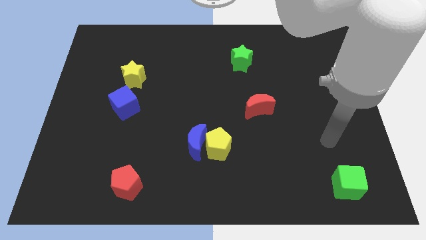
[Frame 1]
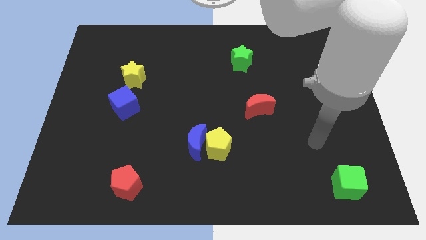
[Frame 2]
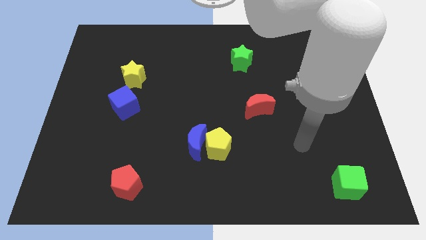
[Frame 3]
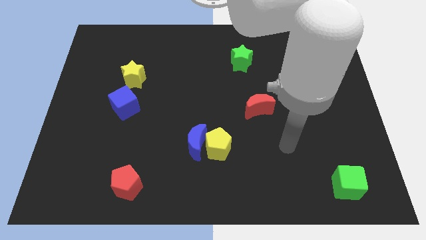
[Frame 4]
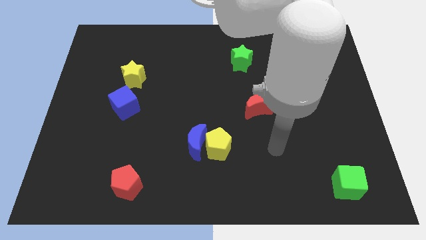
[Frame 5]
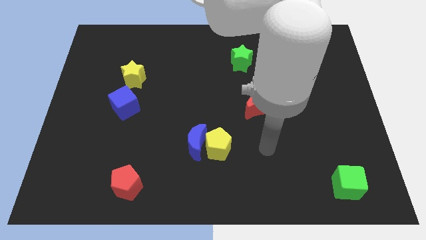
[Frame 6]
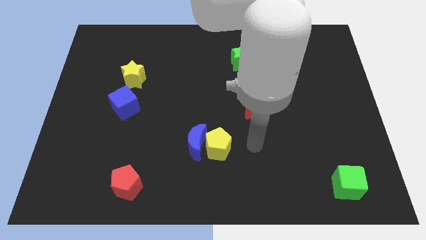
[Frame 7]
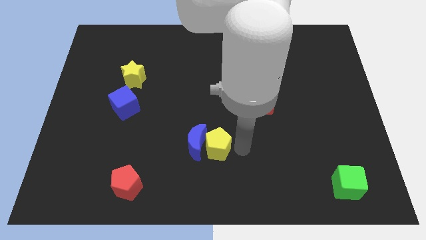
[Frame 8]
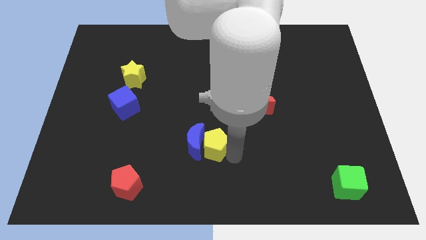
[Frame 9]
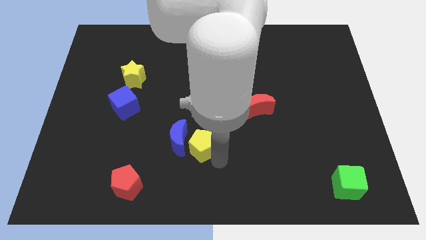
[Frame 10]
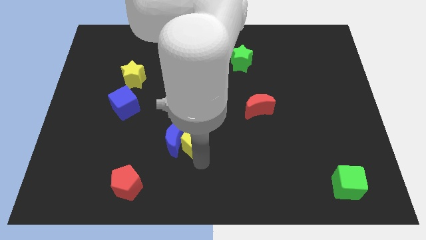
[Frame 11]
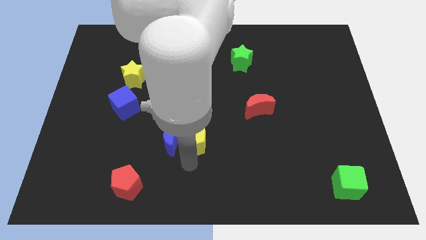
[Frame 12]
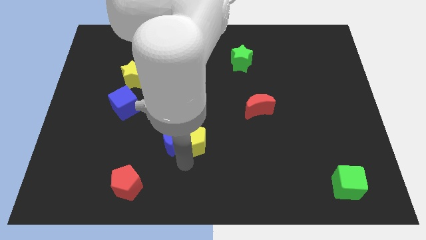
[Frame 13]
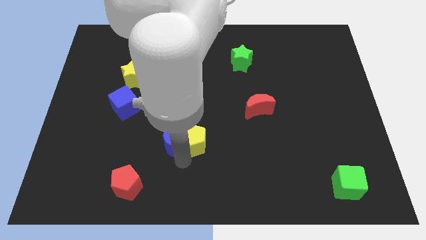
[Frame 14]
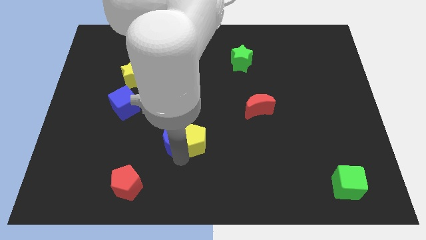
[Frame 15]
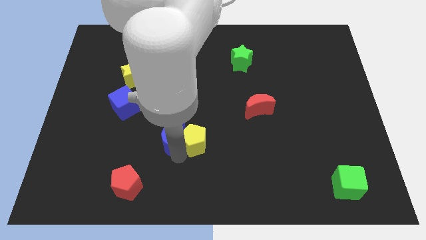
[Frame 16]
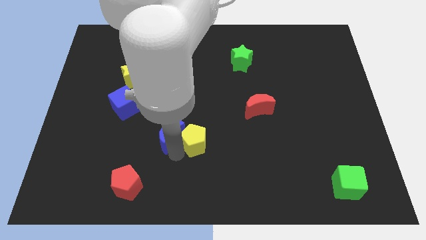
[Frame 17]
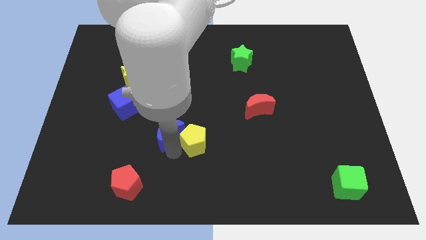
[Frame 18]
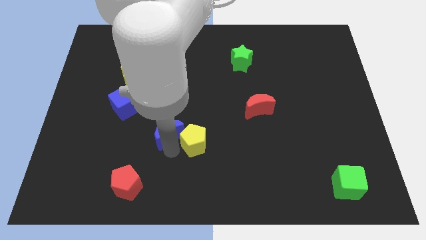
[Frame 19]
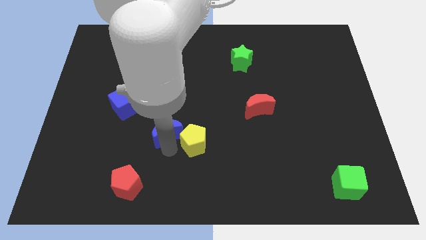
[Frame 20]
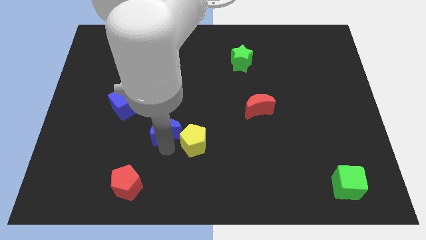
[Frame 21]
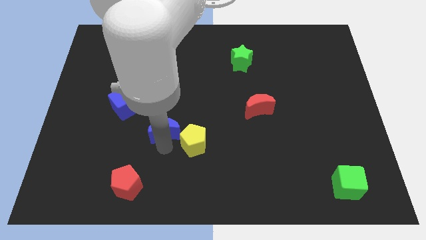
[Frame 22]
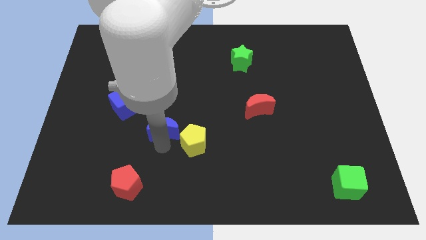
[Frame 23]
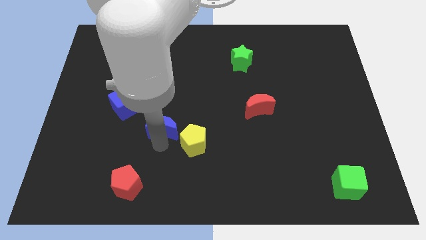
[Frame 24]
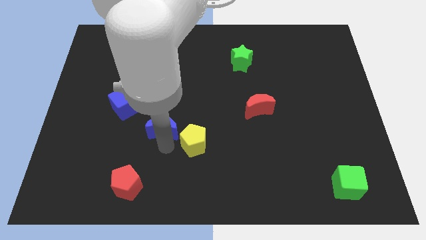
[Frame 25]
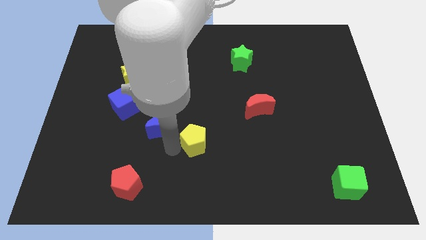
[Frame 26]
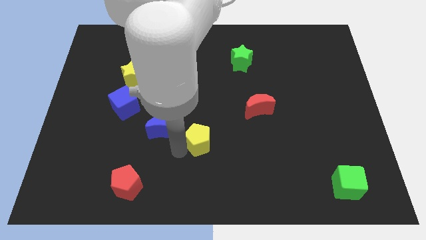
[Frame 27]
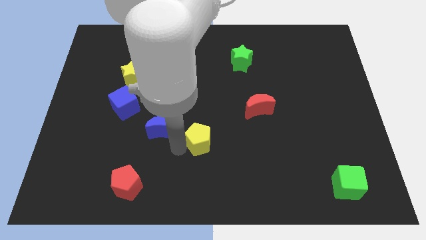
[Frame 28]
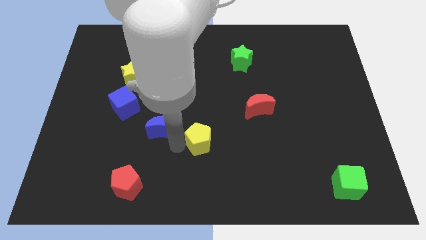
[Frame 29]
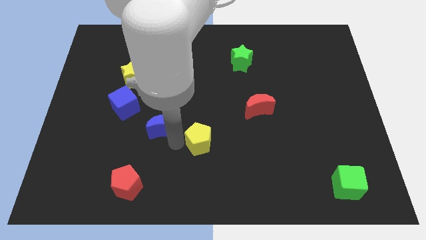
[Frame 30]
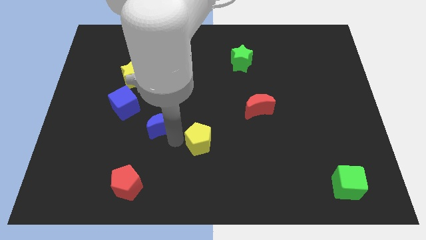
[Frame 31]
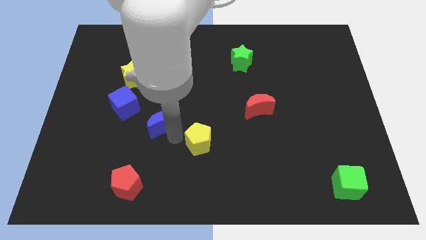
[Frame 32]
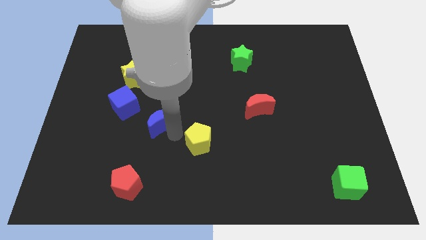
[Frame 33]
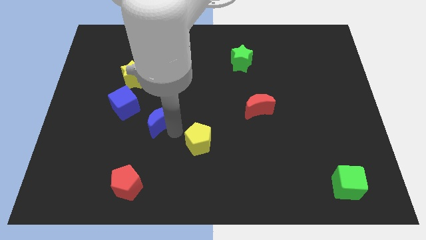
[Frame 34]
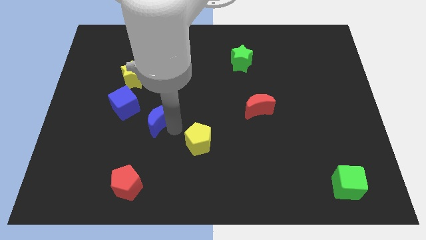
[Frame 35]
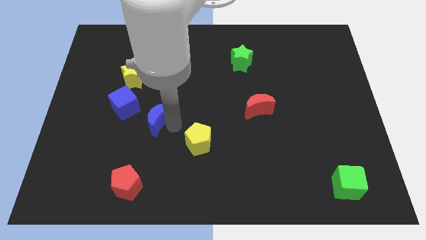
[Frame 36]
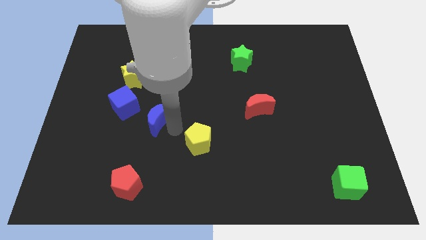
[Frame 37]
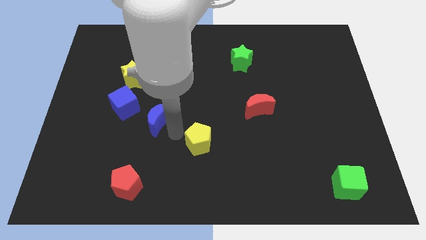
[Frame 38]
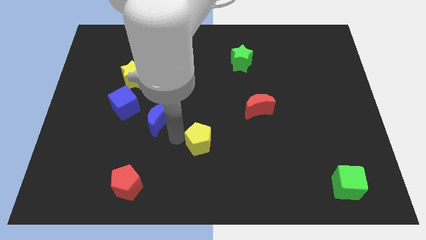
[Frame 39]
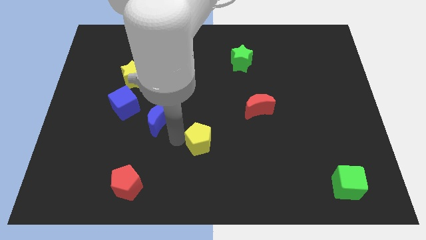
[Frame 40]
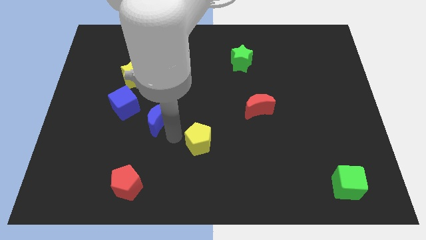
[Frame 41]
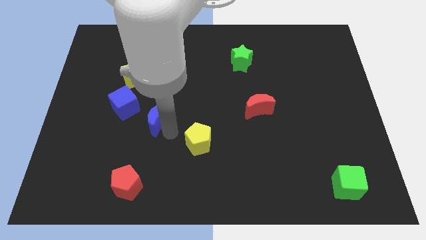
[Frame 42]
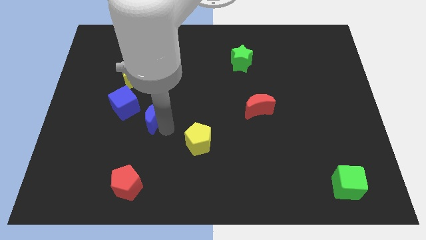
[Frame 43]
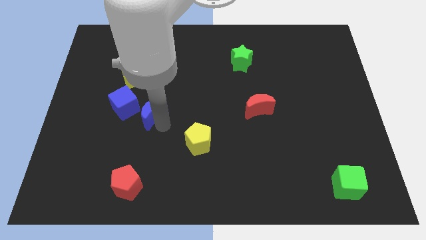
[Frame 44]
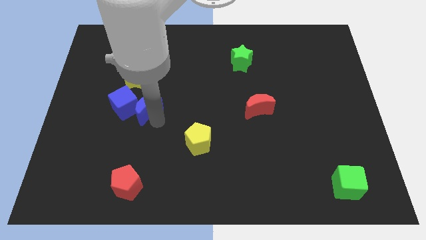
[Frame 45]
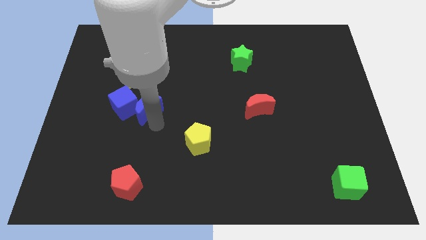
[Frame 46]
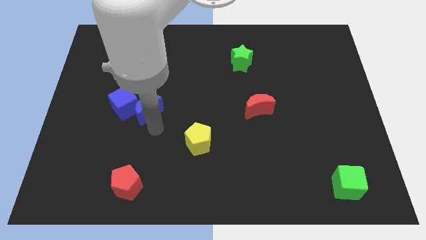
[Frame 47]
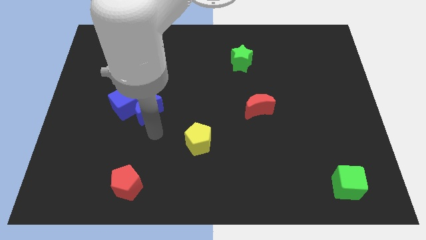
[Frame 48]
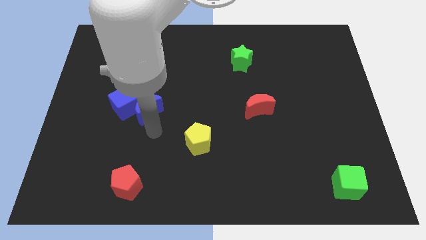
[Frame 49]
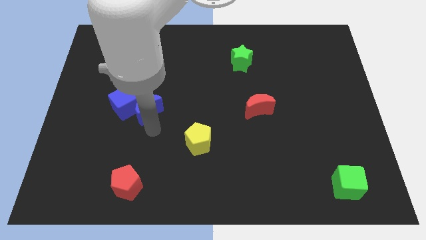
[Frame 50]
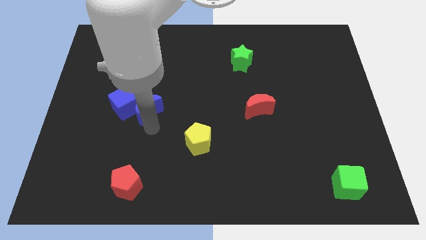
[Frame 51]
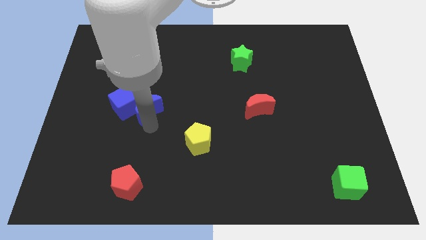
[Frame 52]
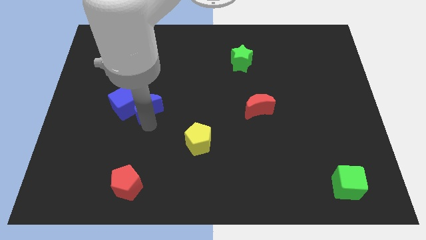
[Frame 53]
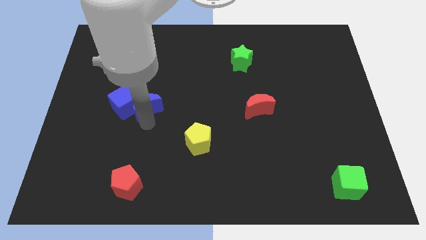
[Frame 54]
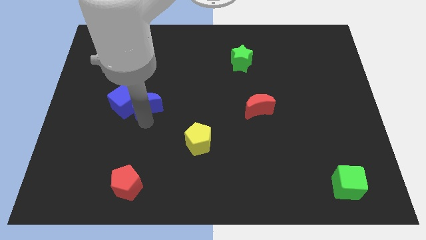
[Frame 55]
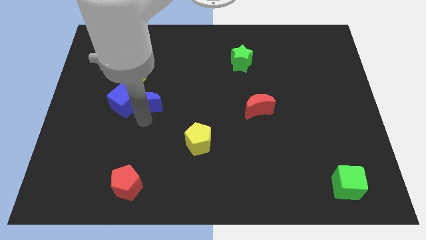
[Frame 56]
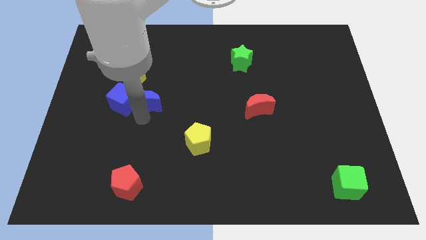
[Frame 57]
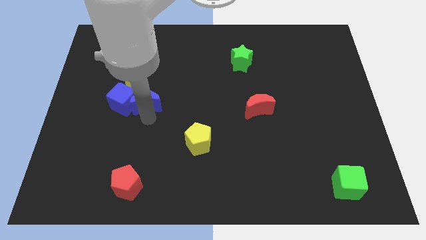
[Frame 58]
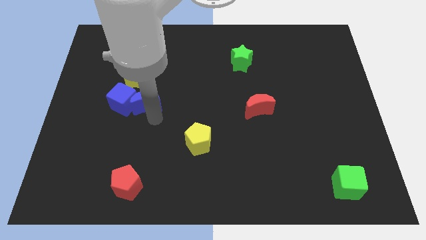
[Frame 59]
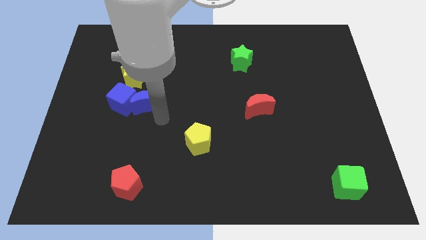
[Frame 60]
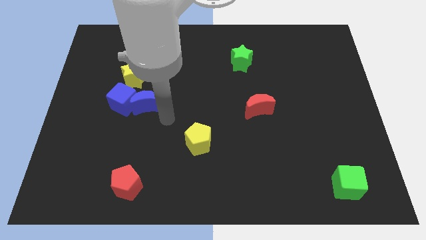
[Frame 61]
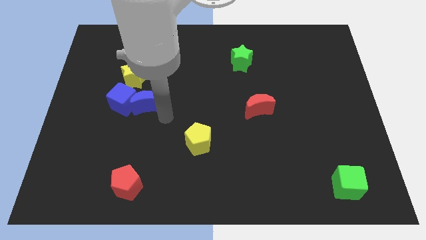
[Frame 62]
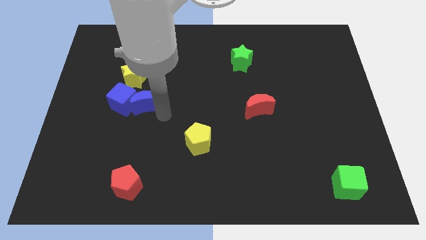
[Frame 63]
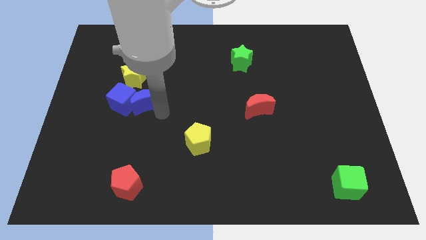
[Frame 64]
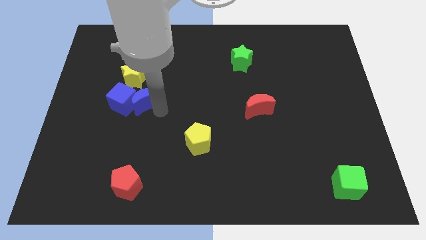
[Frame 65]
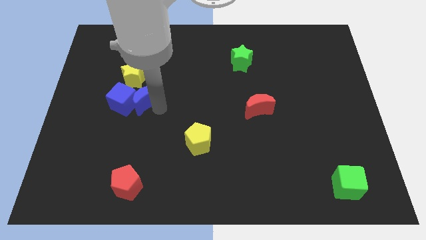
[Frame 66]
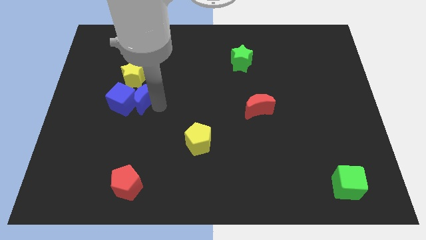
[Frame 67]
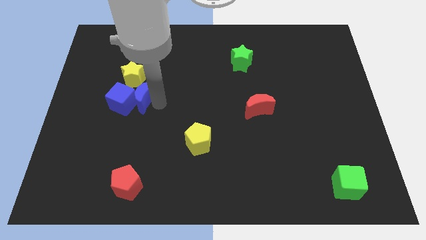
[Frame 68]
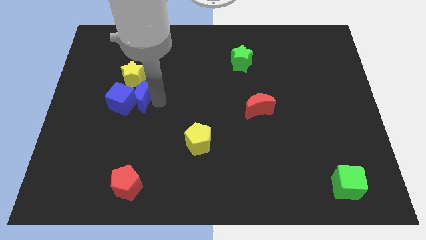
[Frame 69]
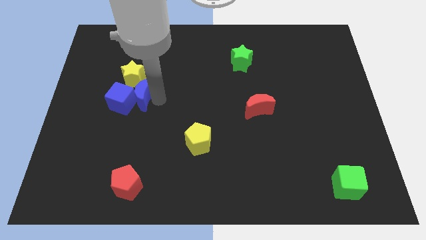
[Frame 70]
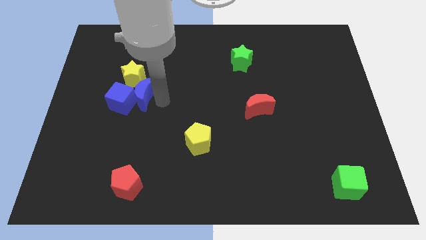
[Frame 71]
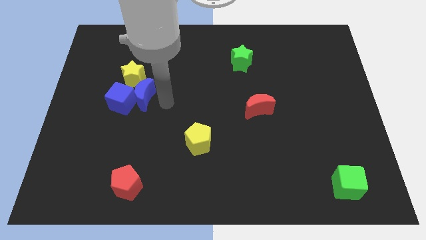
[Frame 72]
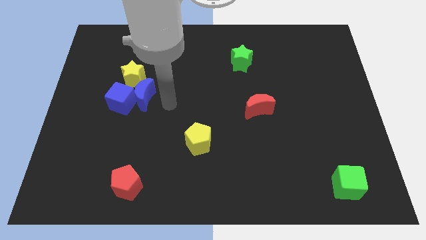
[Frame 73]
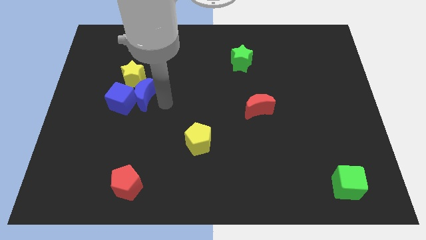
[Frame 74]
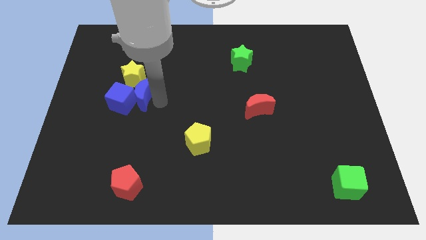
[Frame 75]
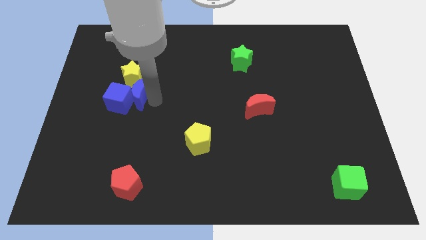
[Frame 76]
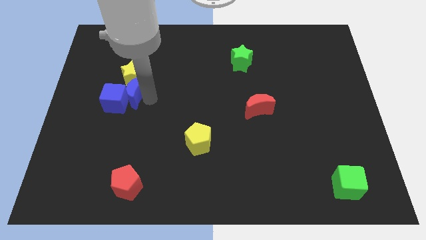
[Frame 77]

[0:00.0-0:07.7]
push the blue moon up and then to the left

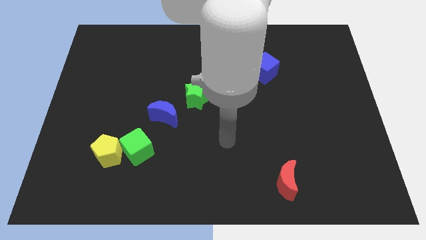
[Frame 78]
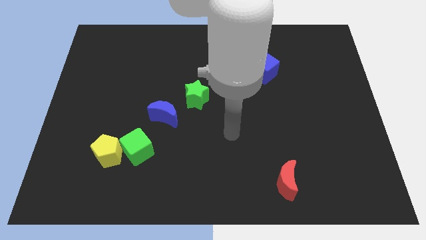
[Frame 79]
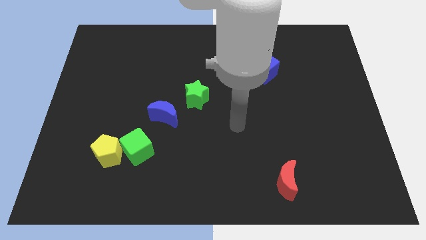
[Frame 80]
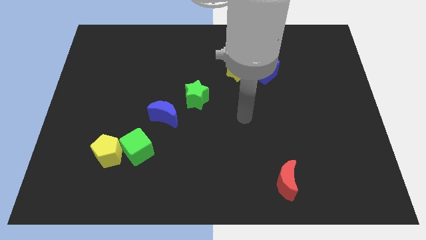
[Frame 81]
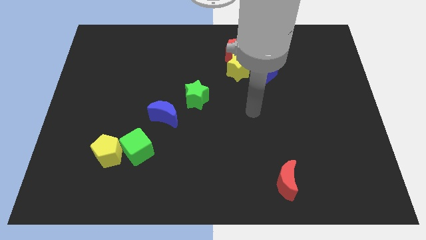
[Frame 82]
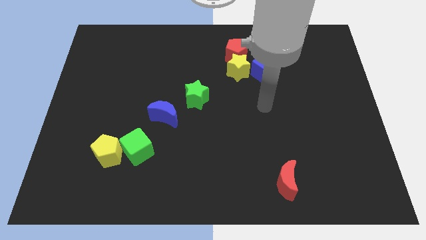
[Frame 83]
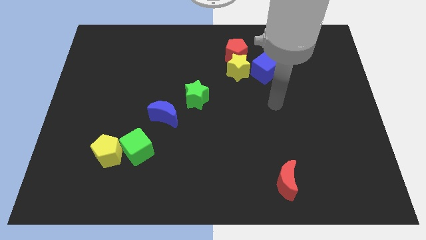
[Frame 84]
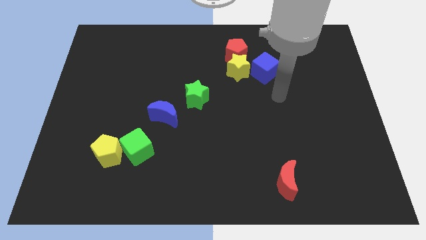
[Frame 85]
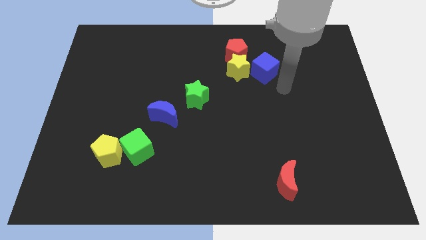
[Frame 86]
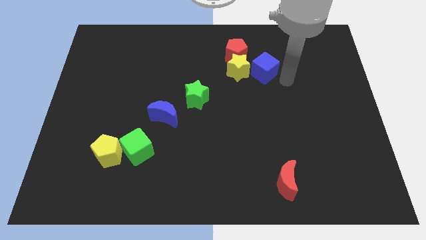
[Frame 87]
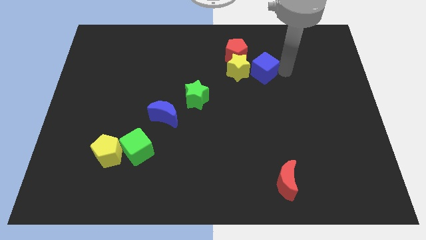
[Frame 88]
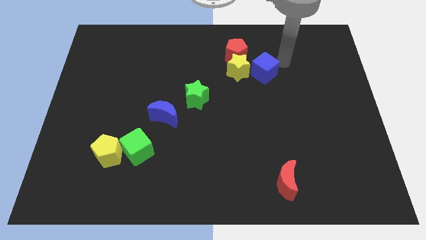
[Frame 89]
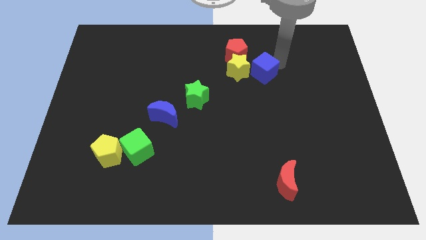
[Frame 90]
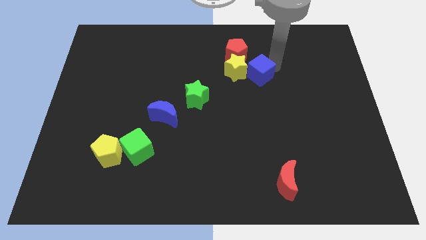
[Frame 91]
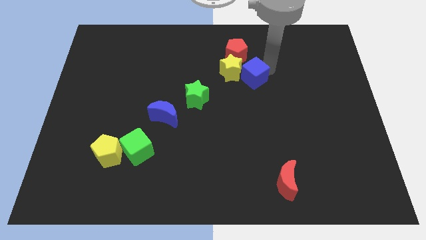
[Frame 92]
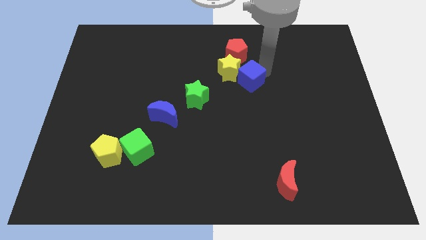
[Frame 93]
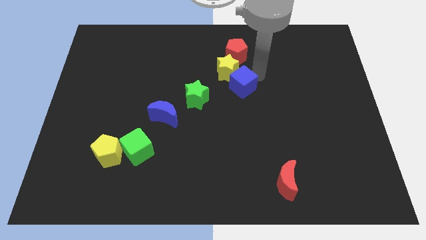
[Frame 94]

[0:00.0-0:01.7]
push the blue cube down and then to the left slightly
